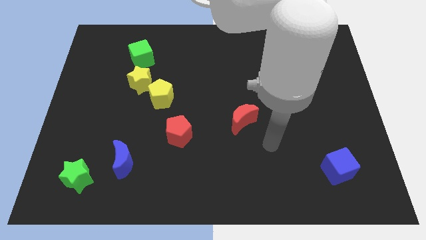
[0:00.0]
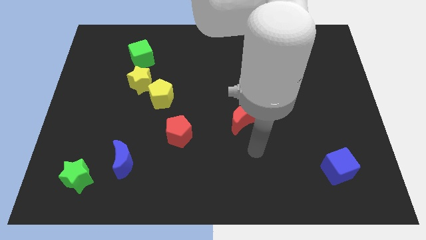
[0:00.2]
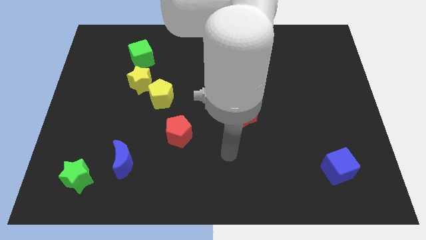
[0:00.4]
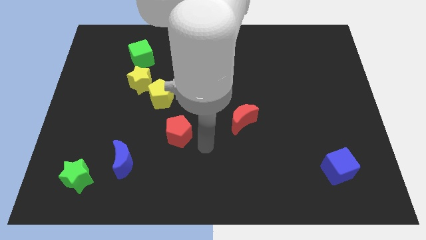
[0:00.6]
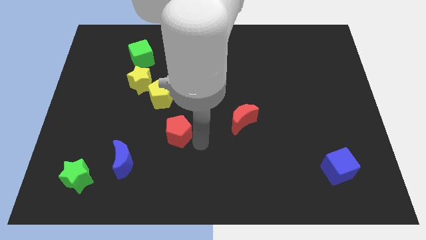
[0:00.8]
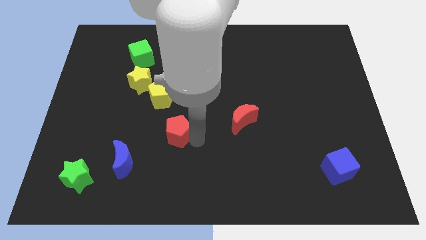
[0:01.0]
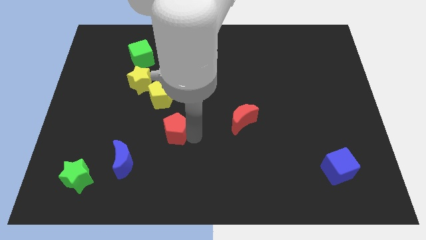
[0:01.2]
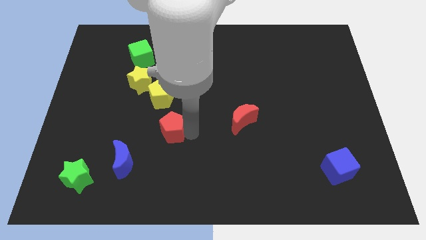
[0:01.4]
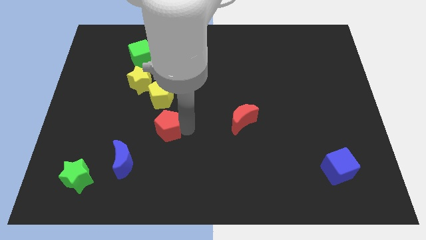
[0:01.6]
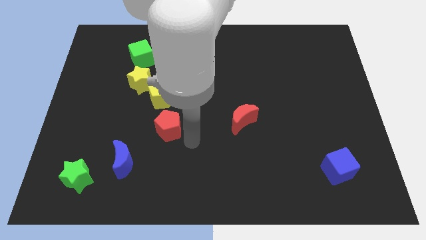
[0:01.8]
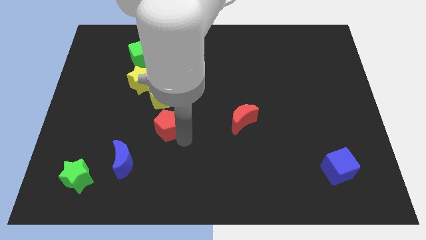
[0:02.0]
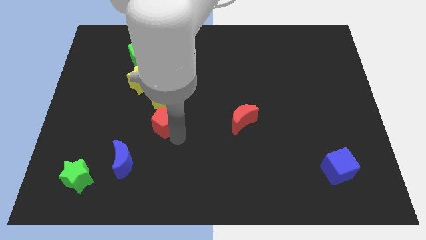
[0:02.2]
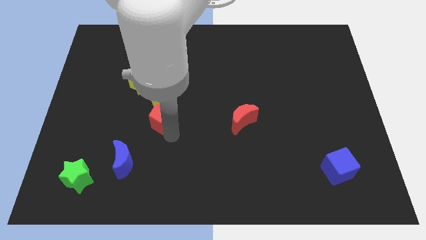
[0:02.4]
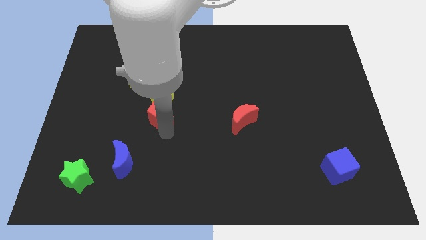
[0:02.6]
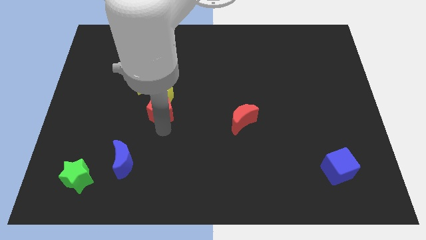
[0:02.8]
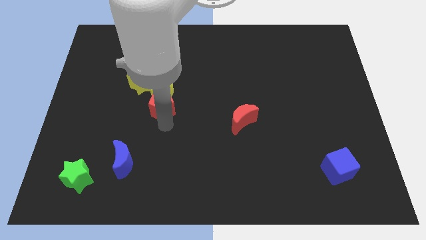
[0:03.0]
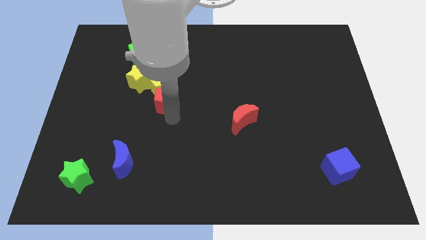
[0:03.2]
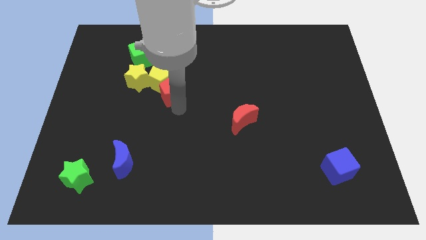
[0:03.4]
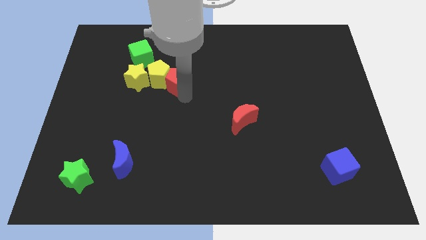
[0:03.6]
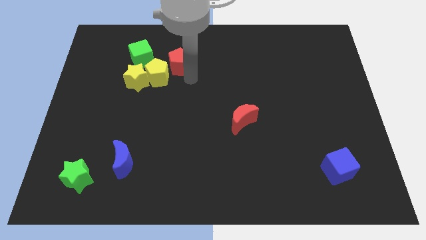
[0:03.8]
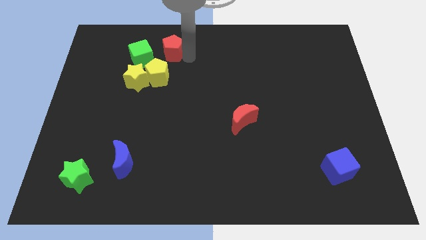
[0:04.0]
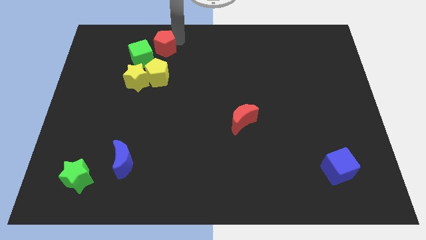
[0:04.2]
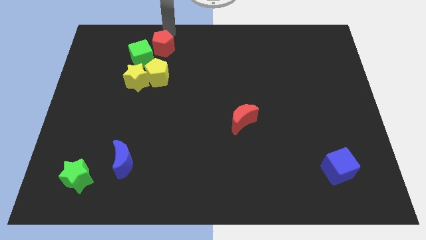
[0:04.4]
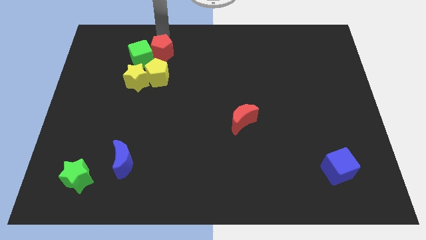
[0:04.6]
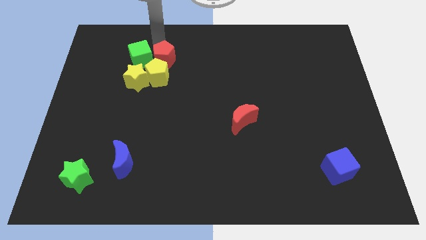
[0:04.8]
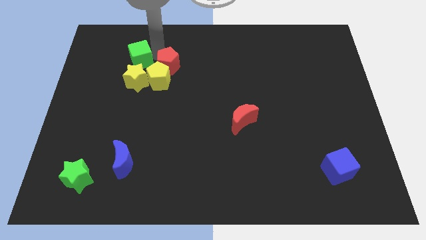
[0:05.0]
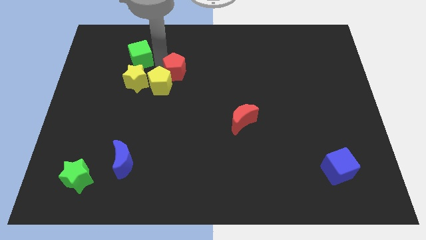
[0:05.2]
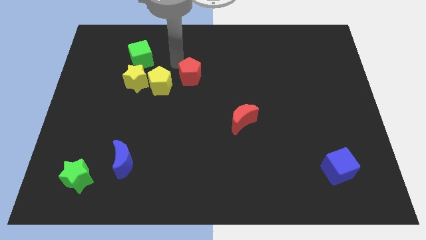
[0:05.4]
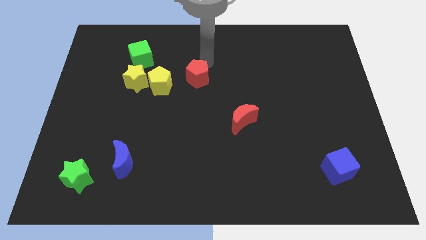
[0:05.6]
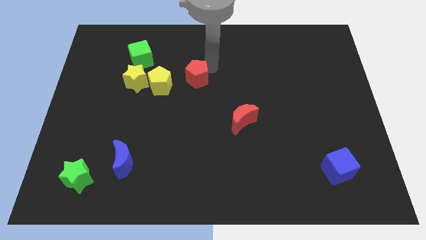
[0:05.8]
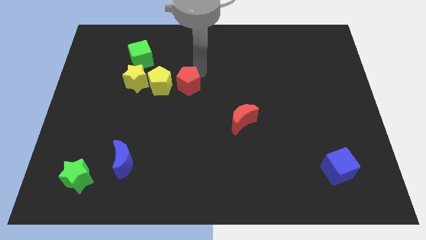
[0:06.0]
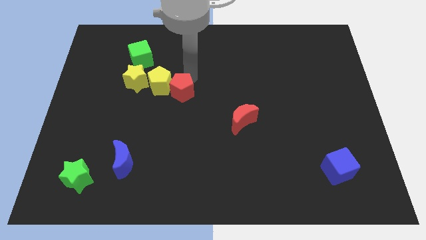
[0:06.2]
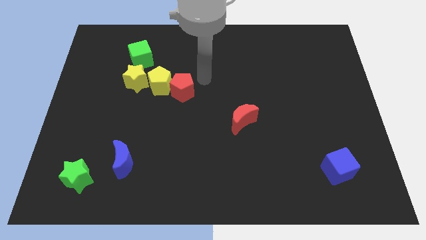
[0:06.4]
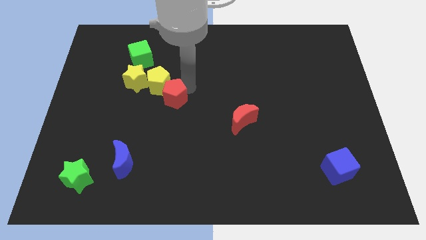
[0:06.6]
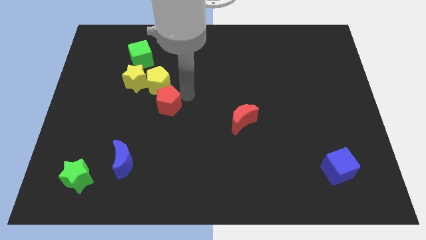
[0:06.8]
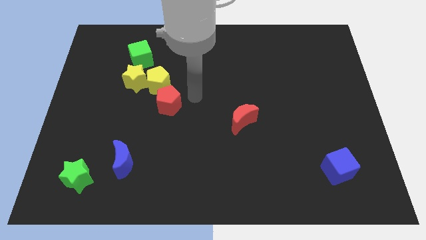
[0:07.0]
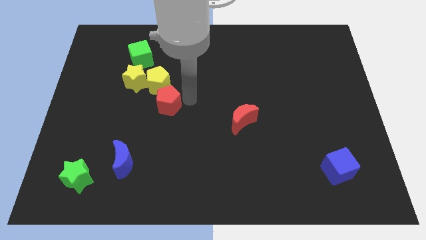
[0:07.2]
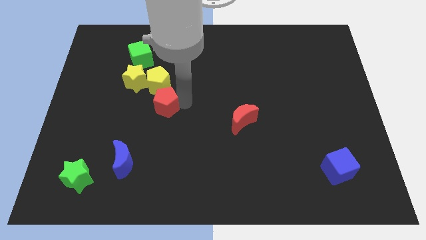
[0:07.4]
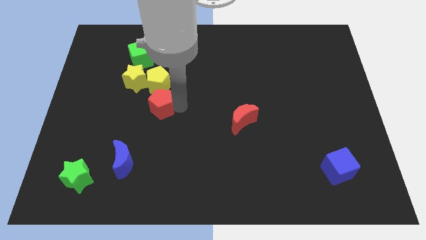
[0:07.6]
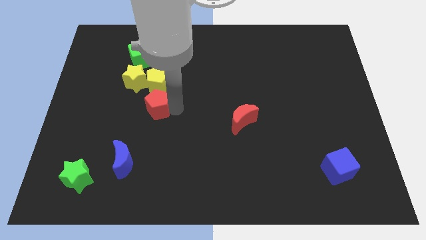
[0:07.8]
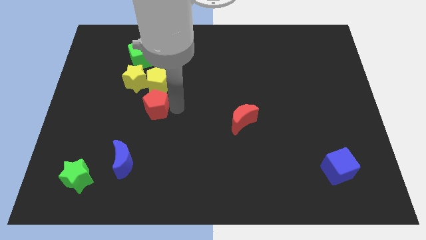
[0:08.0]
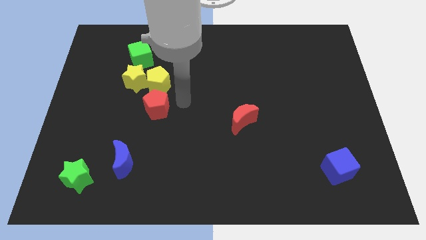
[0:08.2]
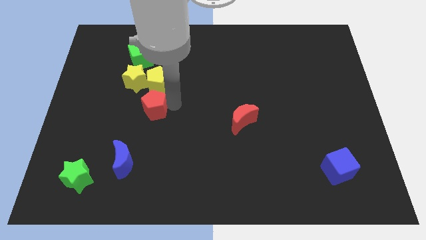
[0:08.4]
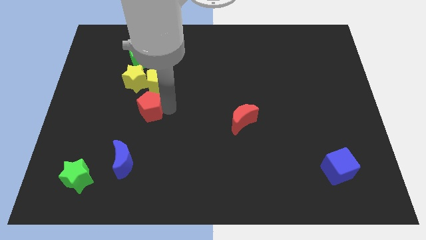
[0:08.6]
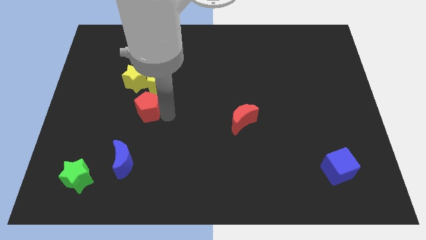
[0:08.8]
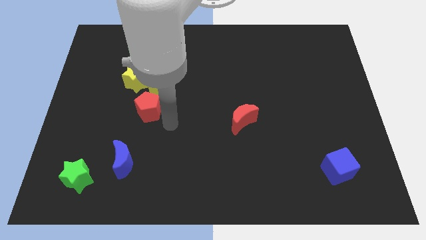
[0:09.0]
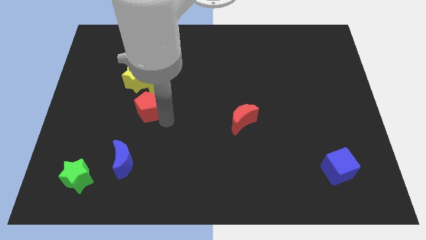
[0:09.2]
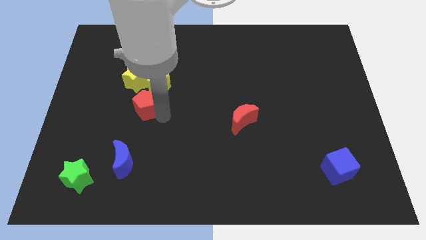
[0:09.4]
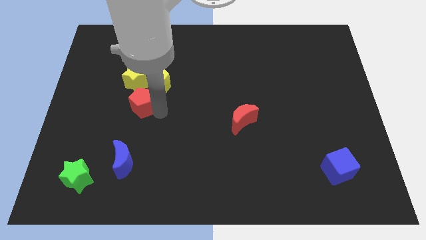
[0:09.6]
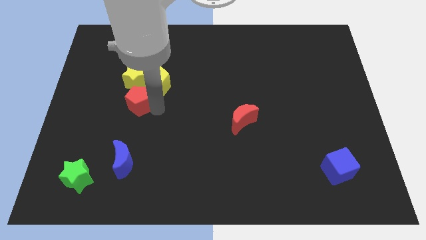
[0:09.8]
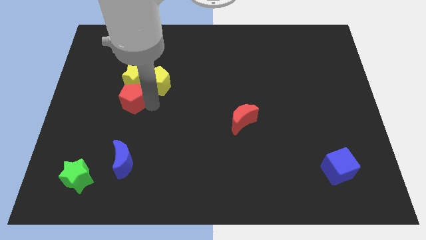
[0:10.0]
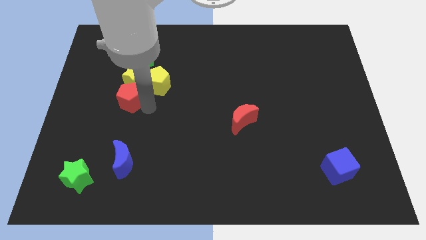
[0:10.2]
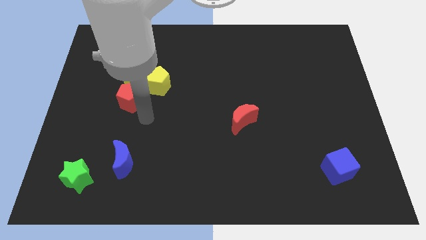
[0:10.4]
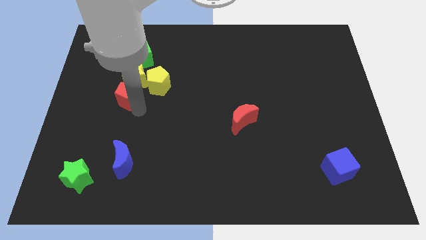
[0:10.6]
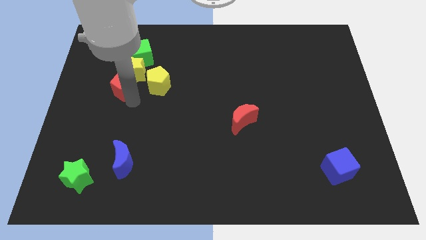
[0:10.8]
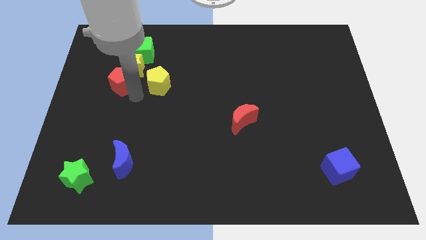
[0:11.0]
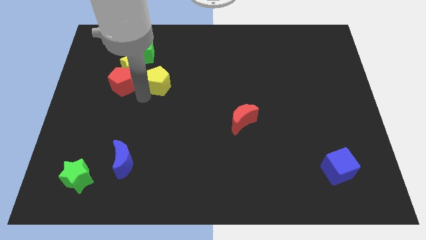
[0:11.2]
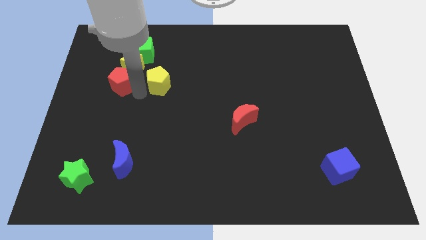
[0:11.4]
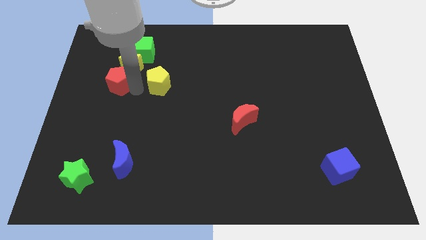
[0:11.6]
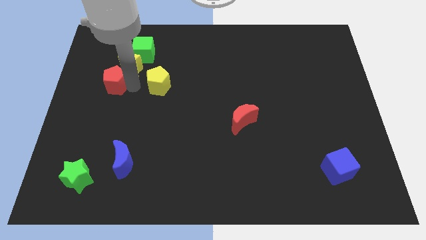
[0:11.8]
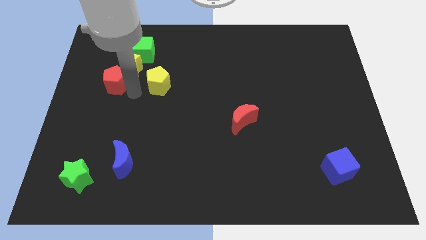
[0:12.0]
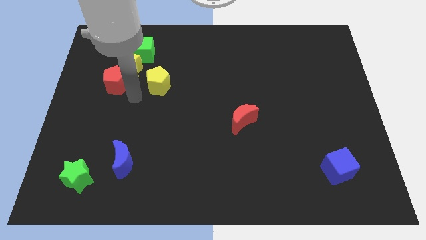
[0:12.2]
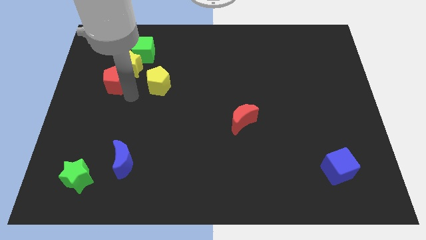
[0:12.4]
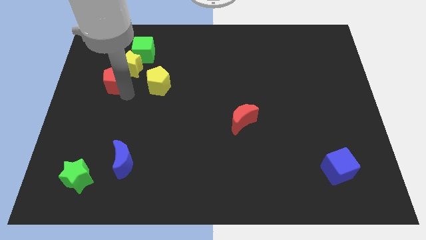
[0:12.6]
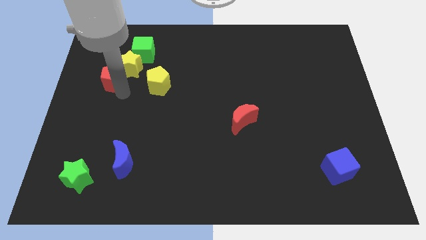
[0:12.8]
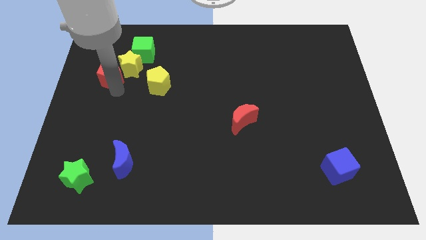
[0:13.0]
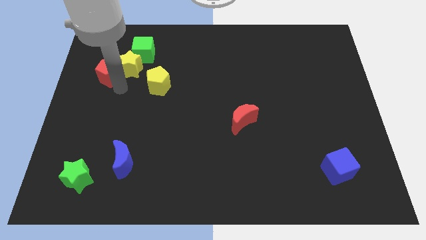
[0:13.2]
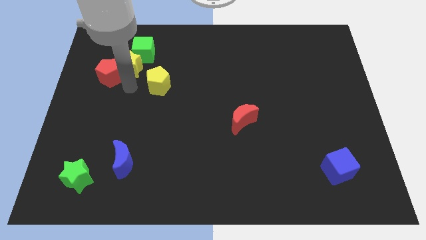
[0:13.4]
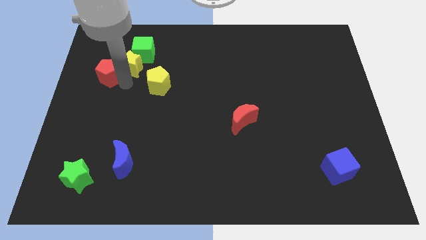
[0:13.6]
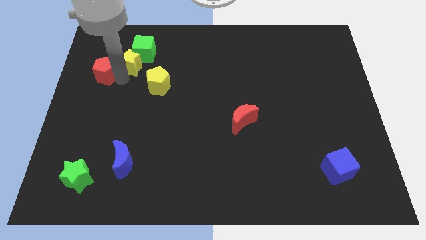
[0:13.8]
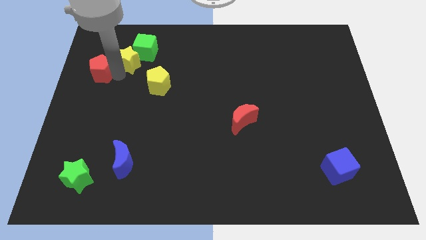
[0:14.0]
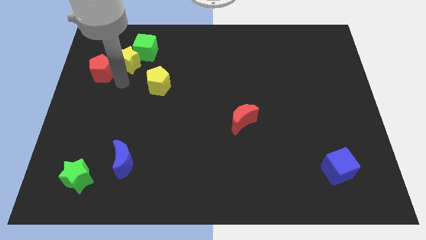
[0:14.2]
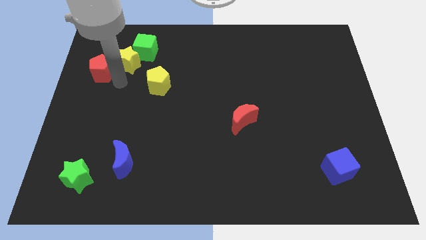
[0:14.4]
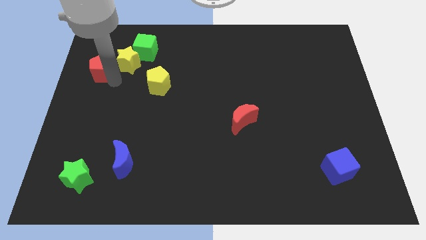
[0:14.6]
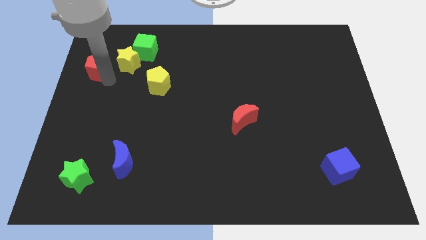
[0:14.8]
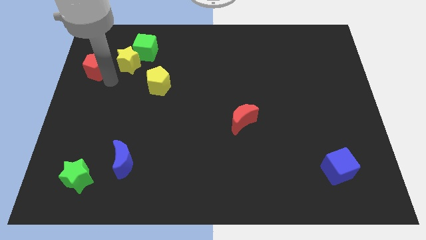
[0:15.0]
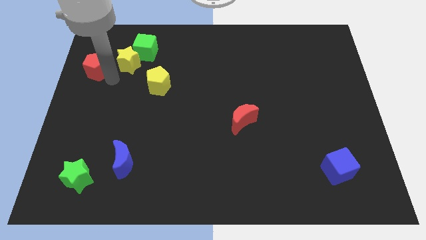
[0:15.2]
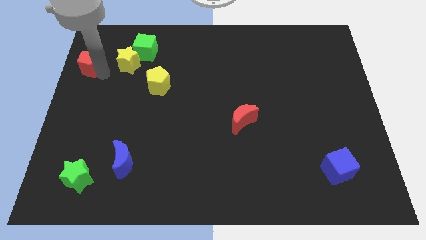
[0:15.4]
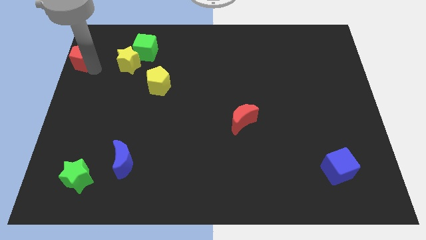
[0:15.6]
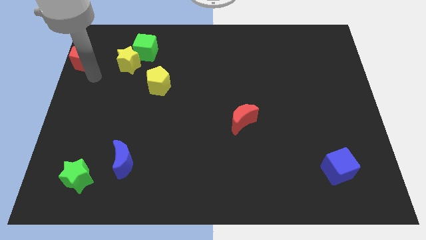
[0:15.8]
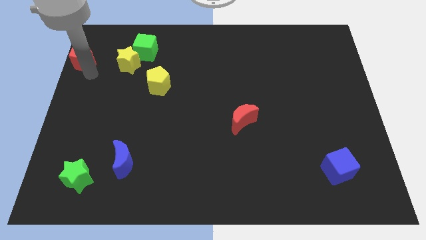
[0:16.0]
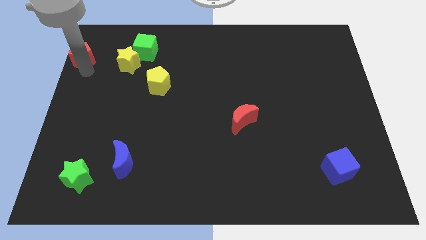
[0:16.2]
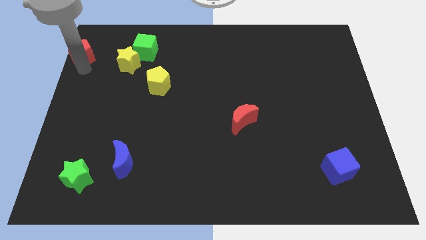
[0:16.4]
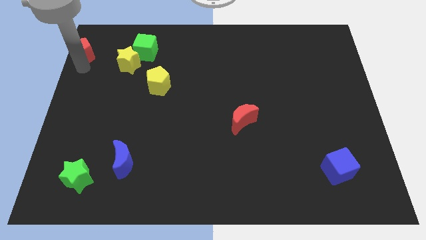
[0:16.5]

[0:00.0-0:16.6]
put the red pentagon to the top left of the board
